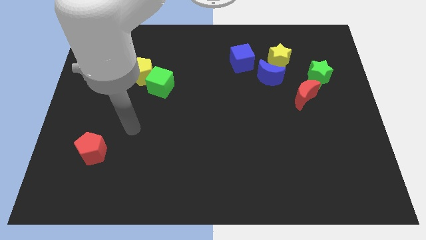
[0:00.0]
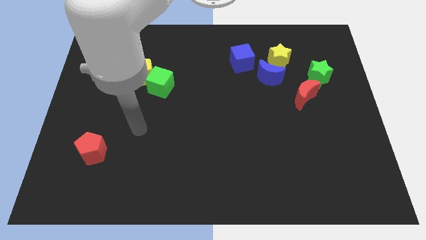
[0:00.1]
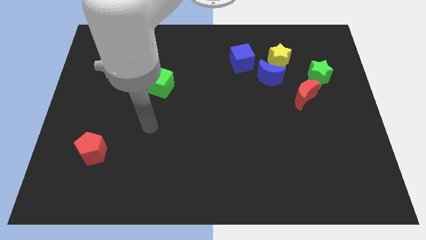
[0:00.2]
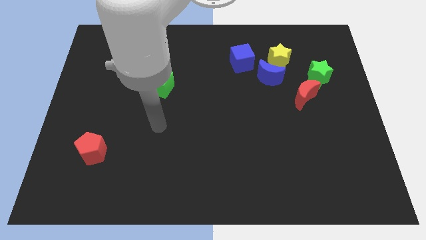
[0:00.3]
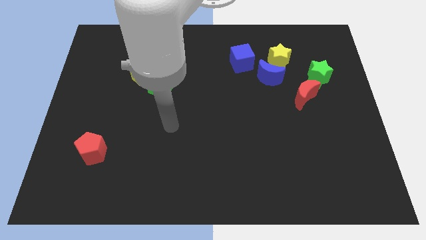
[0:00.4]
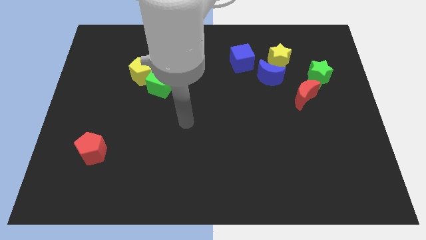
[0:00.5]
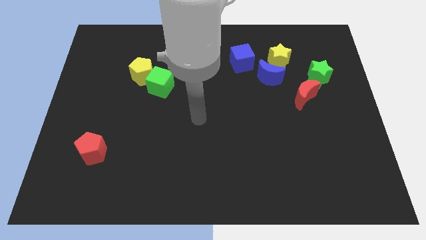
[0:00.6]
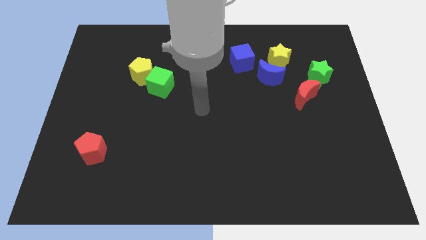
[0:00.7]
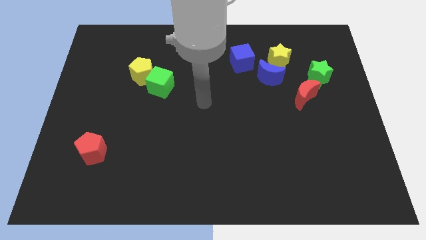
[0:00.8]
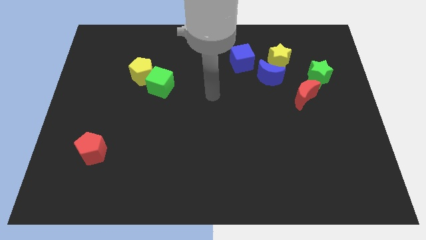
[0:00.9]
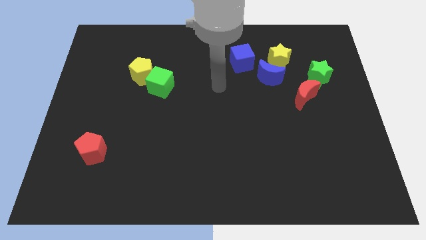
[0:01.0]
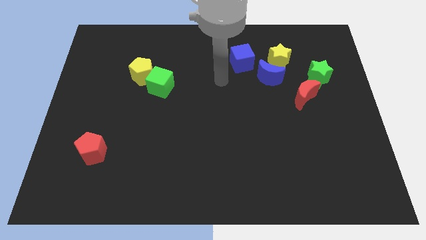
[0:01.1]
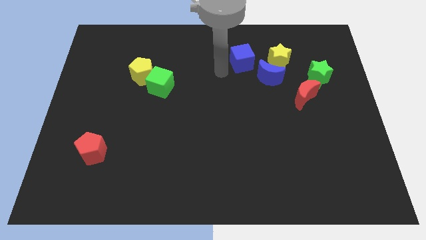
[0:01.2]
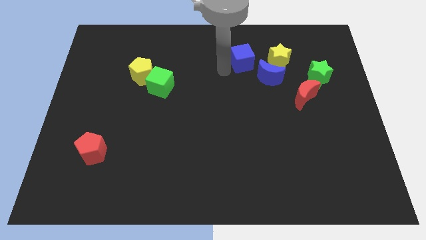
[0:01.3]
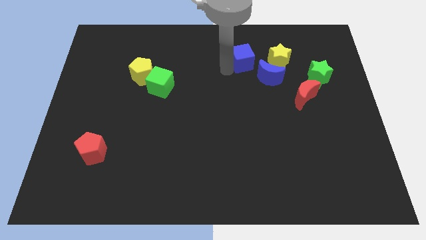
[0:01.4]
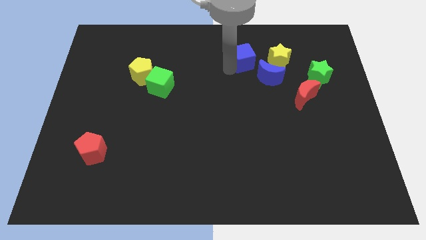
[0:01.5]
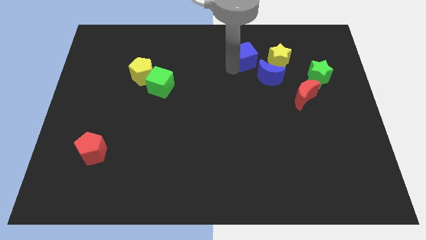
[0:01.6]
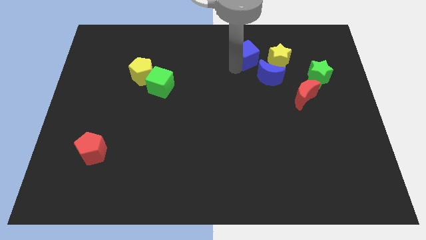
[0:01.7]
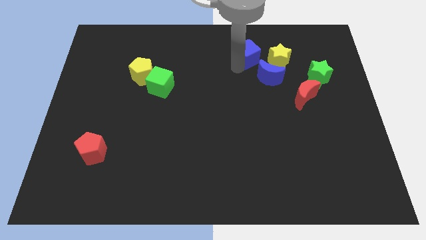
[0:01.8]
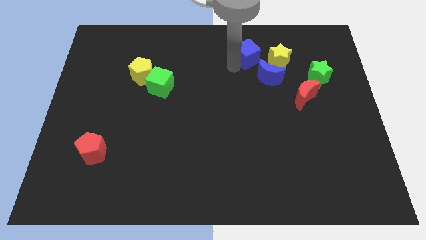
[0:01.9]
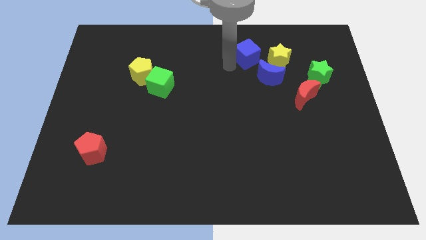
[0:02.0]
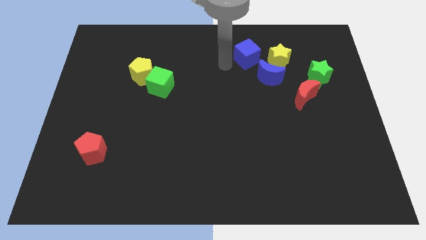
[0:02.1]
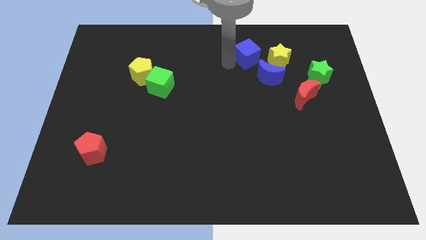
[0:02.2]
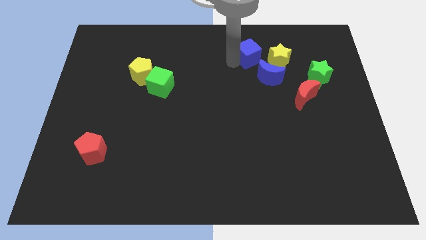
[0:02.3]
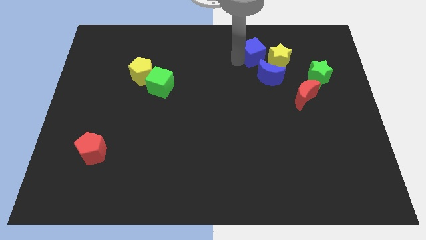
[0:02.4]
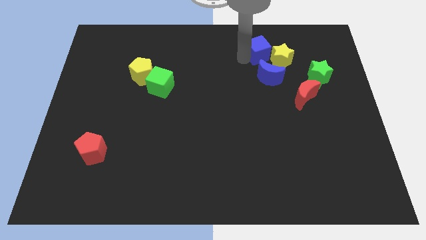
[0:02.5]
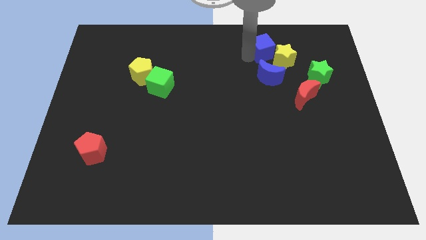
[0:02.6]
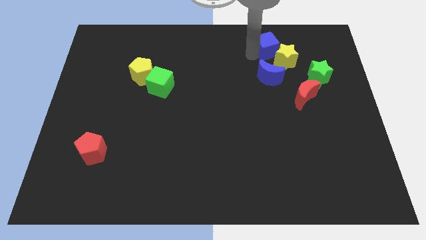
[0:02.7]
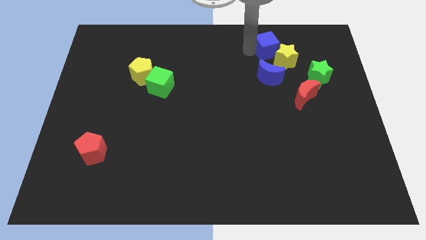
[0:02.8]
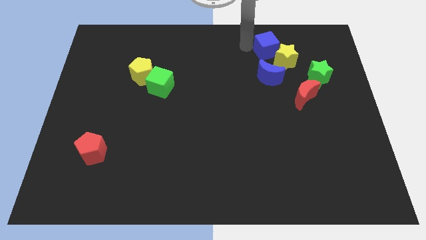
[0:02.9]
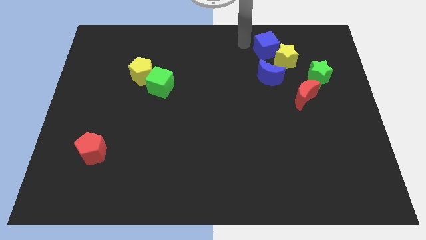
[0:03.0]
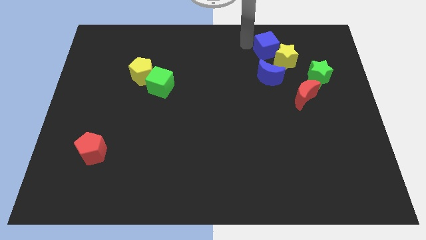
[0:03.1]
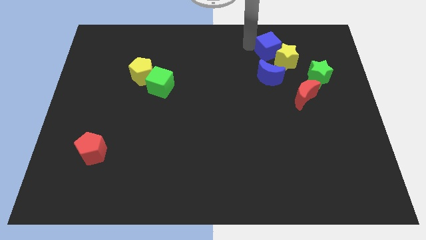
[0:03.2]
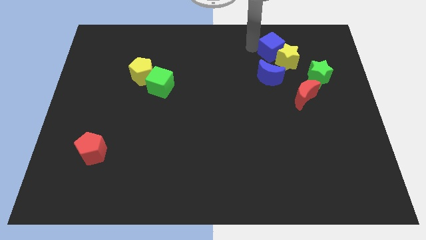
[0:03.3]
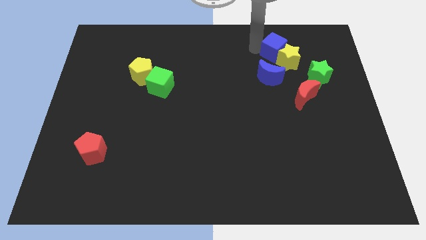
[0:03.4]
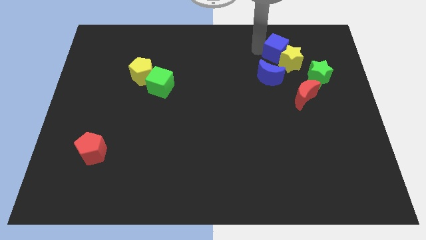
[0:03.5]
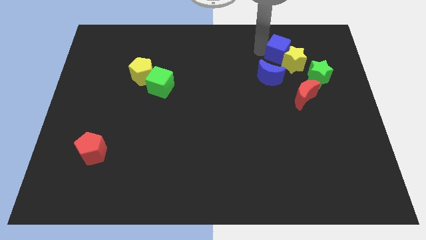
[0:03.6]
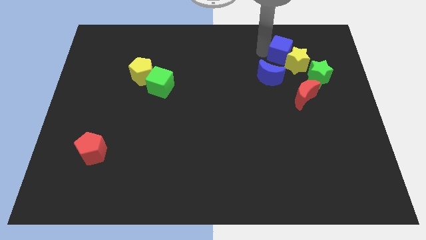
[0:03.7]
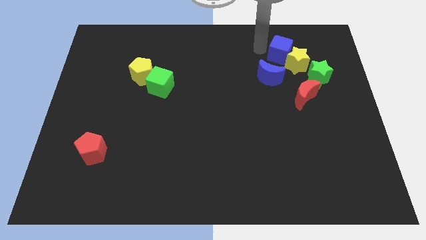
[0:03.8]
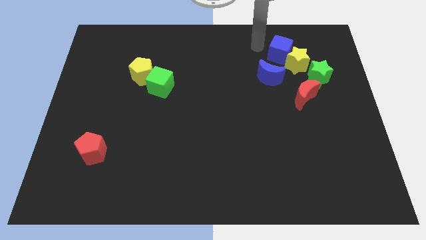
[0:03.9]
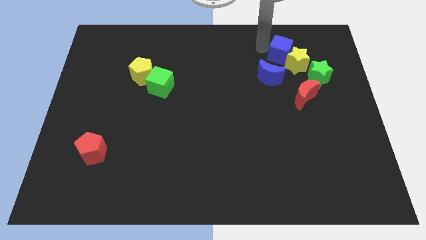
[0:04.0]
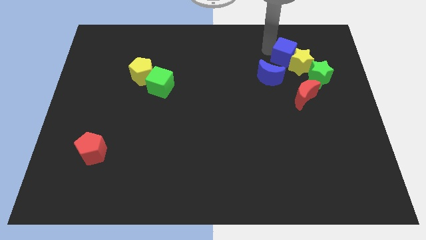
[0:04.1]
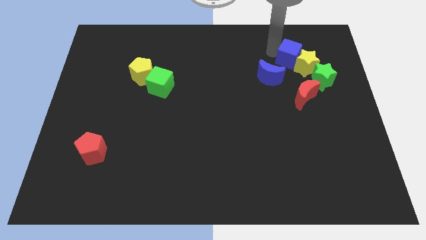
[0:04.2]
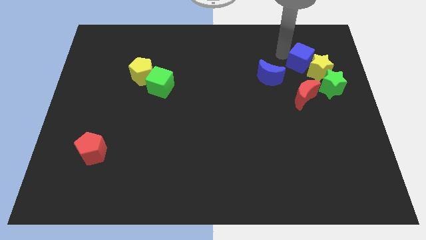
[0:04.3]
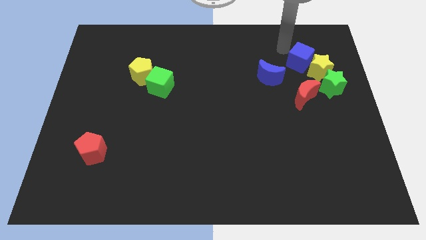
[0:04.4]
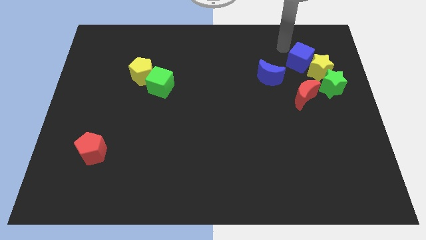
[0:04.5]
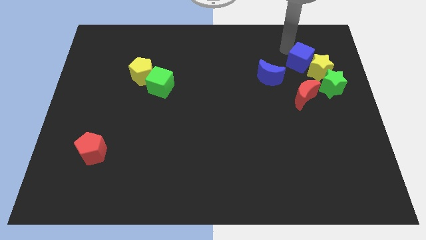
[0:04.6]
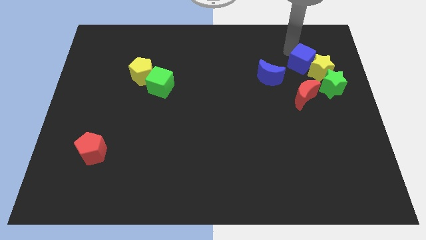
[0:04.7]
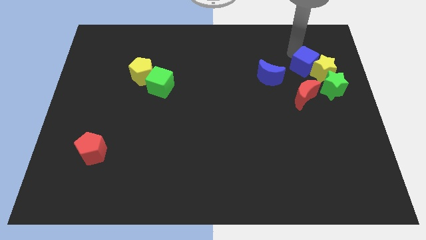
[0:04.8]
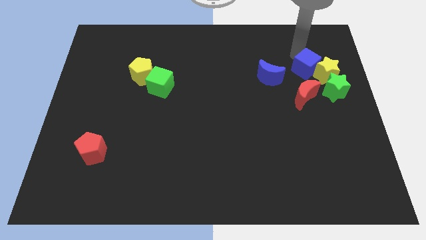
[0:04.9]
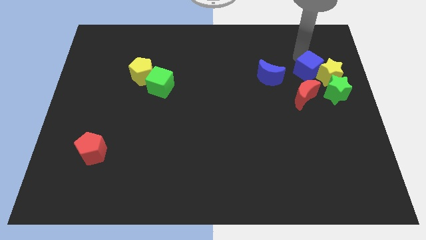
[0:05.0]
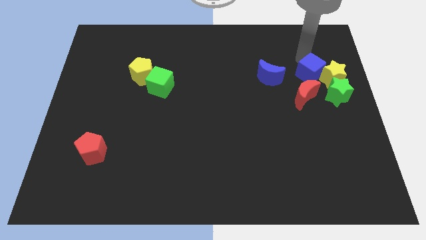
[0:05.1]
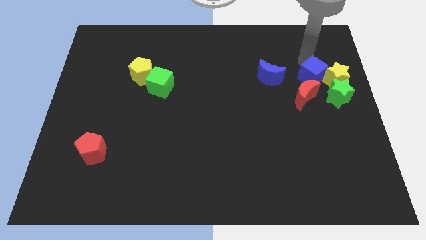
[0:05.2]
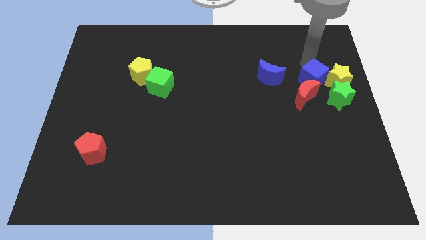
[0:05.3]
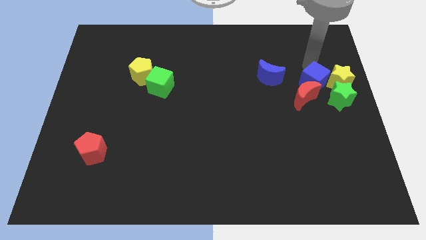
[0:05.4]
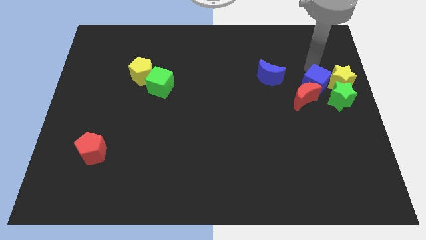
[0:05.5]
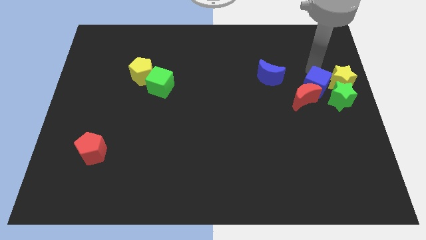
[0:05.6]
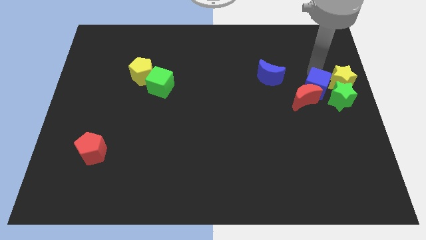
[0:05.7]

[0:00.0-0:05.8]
push the blue cube close to the green star

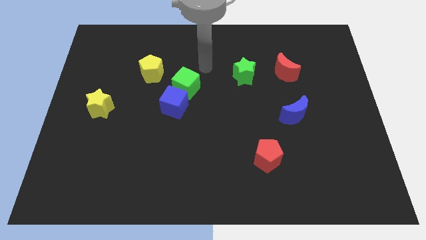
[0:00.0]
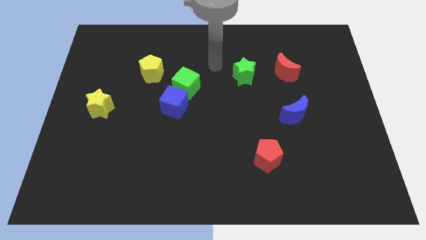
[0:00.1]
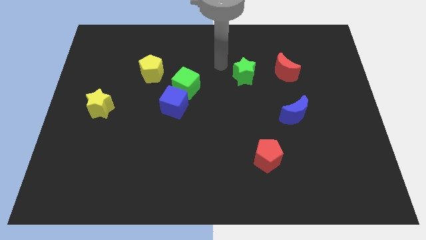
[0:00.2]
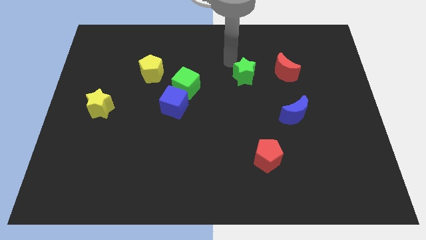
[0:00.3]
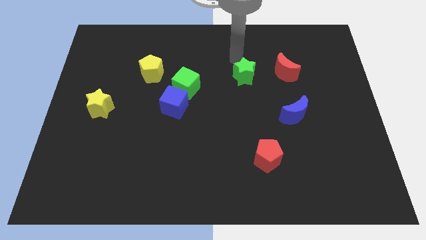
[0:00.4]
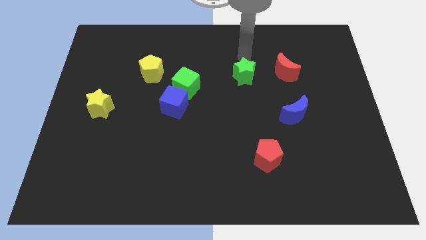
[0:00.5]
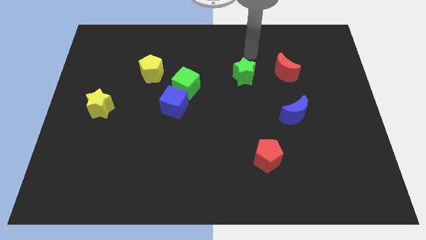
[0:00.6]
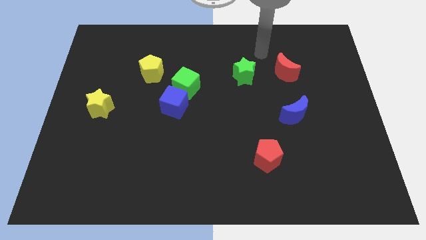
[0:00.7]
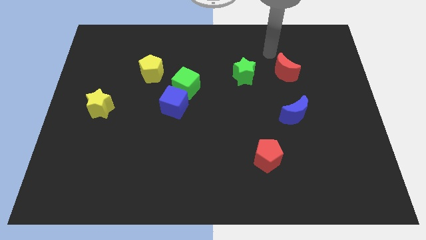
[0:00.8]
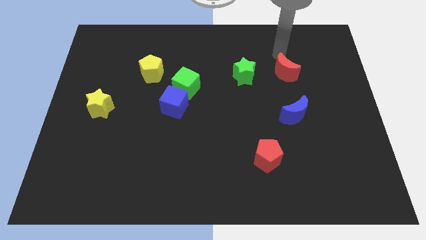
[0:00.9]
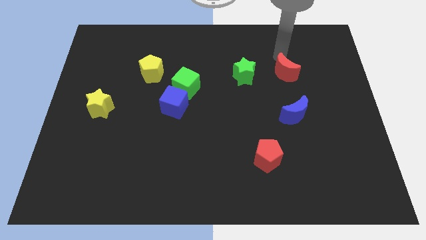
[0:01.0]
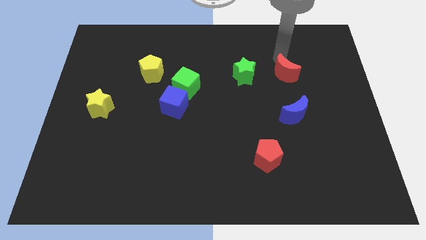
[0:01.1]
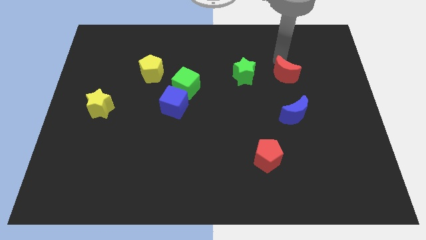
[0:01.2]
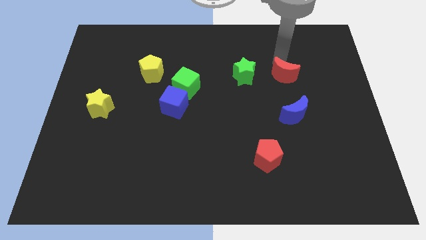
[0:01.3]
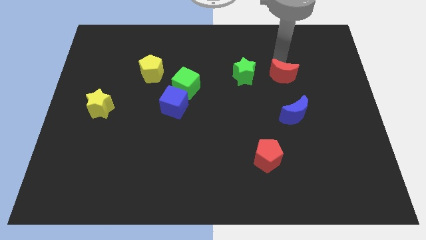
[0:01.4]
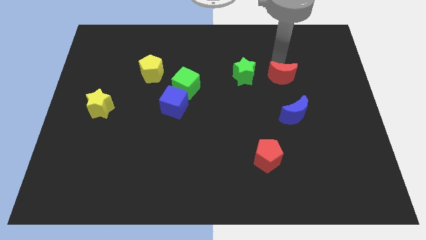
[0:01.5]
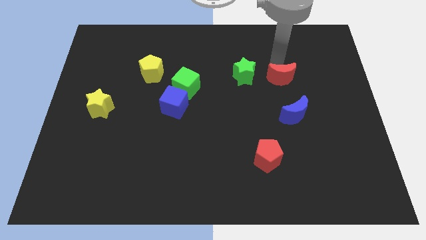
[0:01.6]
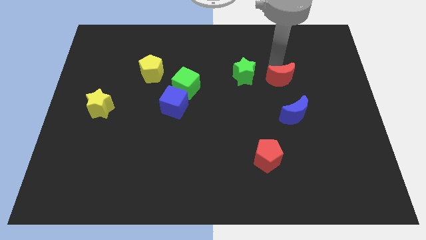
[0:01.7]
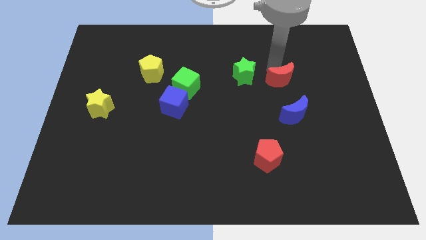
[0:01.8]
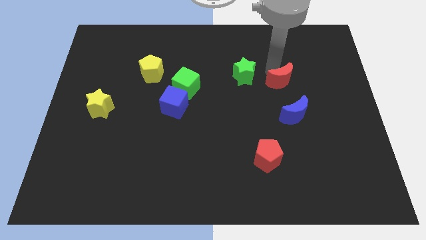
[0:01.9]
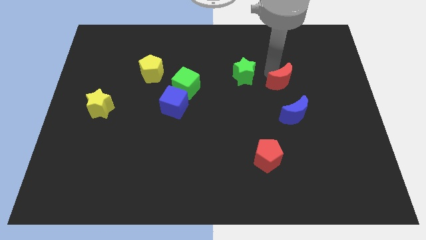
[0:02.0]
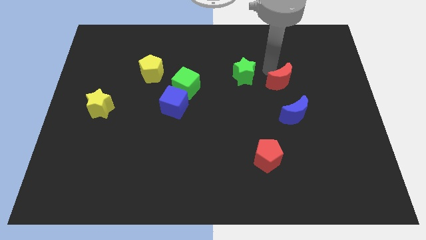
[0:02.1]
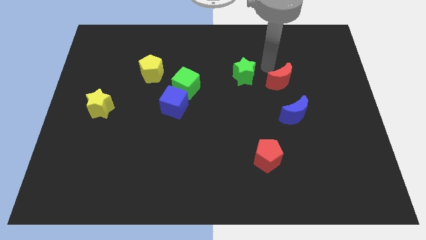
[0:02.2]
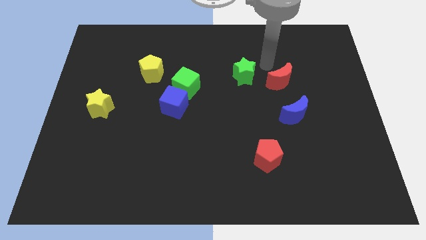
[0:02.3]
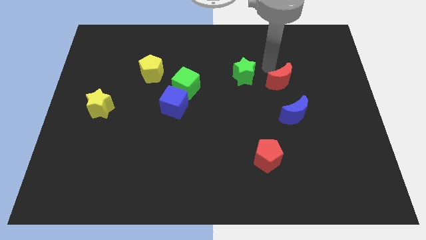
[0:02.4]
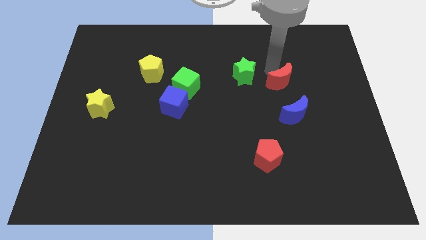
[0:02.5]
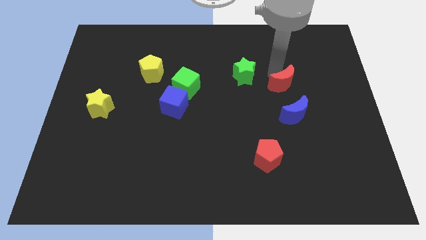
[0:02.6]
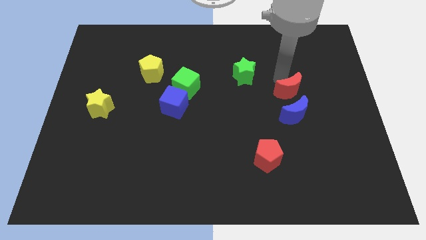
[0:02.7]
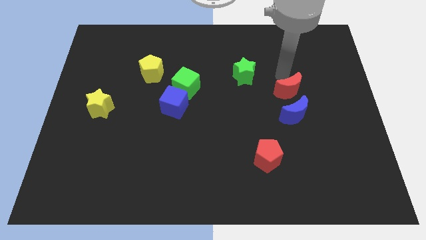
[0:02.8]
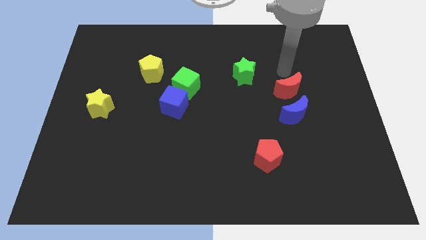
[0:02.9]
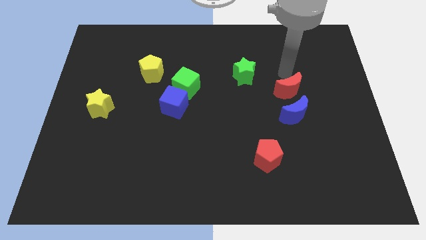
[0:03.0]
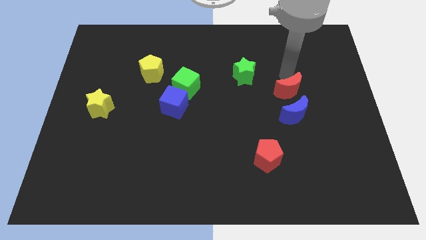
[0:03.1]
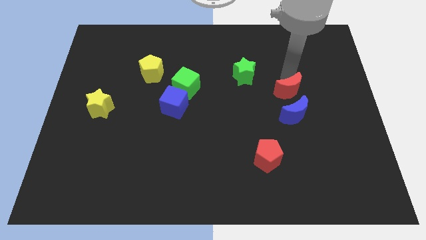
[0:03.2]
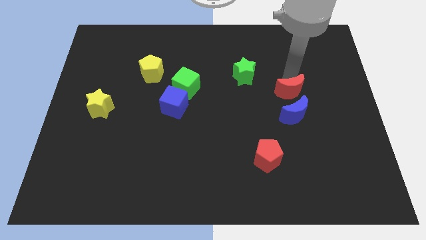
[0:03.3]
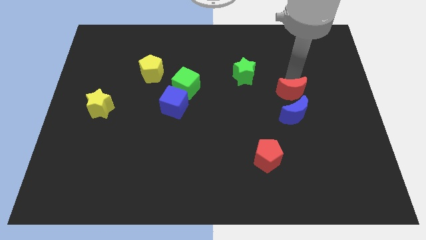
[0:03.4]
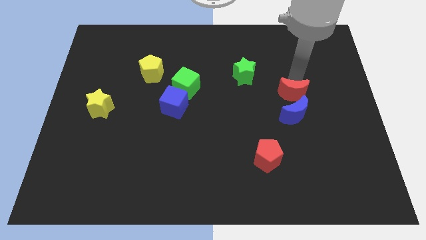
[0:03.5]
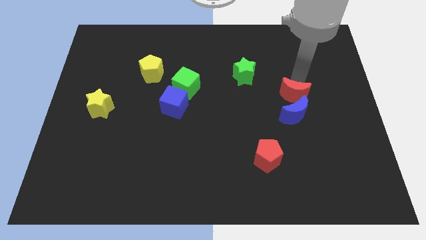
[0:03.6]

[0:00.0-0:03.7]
push the red moon next to the blue moon
